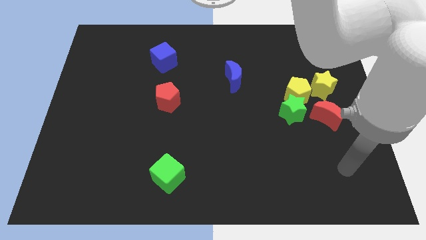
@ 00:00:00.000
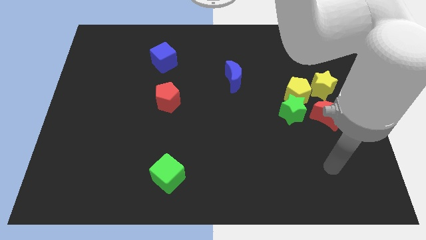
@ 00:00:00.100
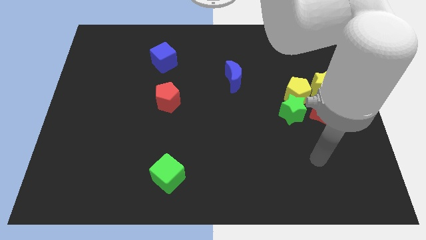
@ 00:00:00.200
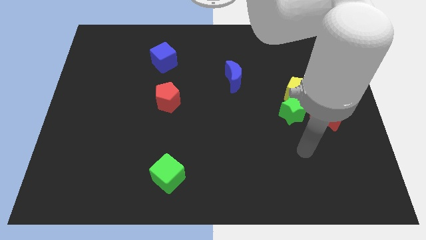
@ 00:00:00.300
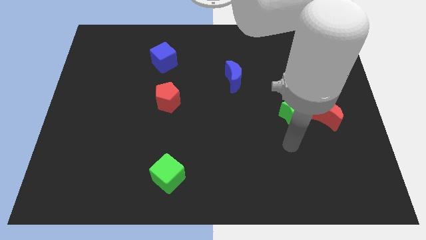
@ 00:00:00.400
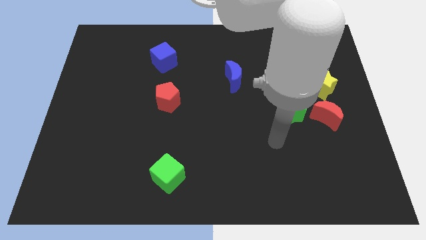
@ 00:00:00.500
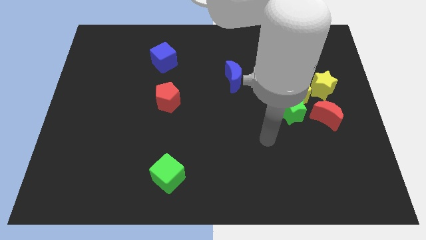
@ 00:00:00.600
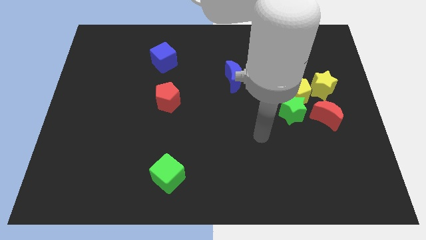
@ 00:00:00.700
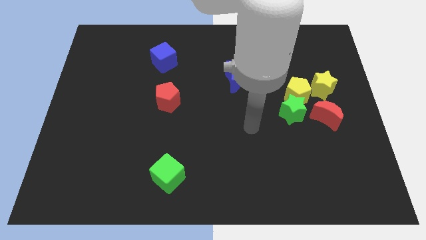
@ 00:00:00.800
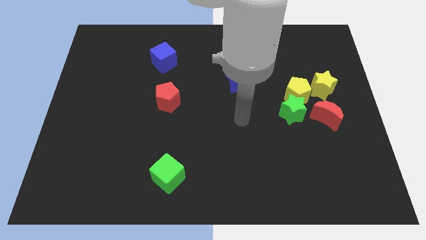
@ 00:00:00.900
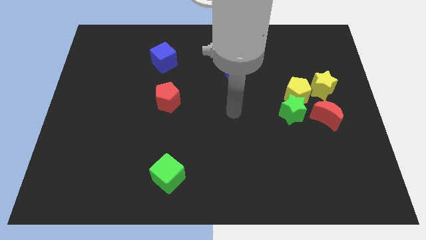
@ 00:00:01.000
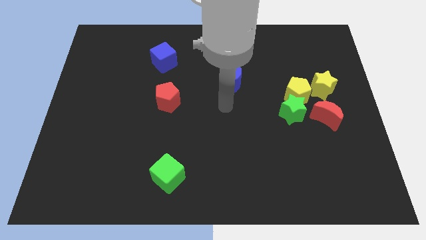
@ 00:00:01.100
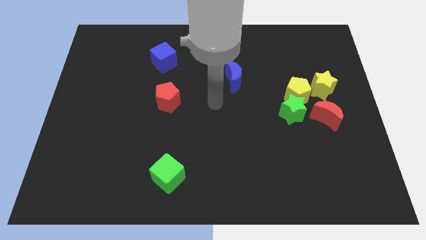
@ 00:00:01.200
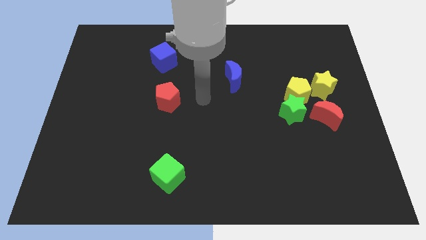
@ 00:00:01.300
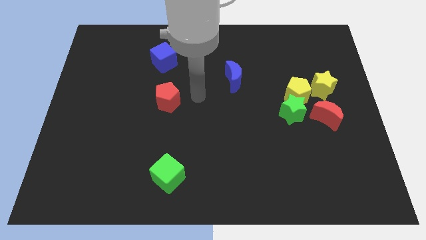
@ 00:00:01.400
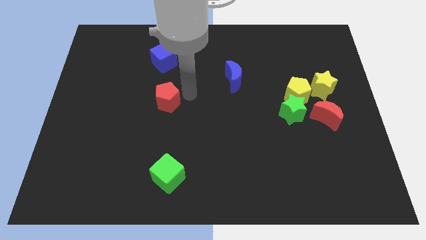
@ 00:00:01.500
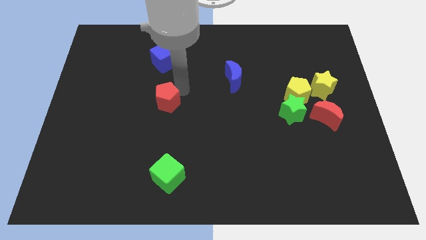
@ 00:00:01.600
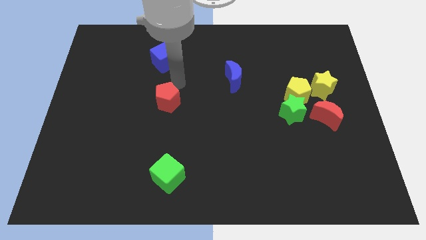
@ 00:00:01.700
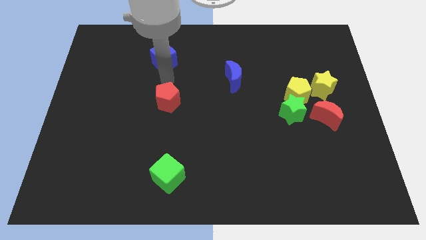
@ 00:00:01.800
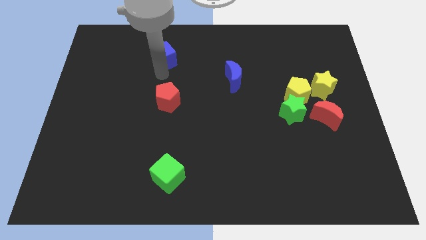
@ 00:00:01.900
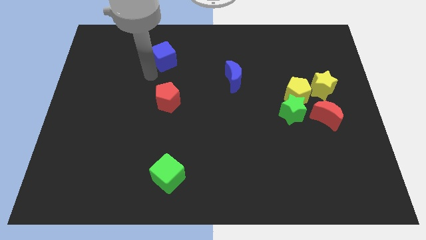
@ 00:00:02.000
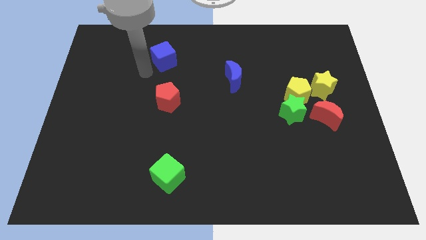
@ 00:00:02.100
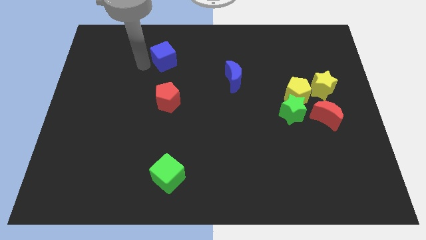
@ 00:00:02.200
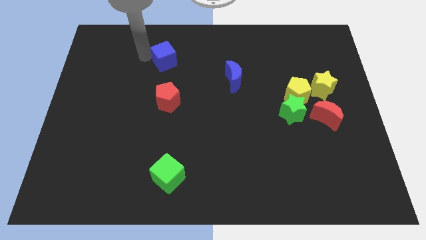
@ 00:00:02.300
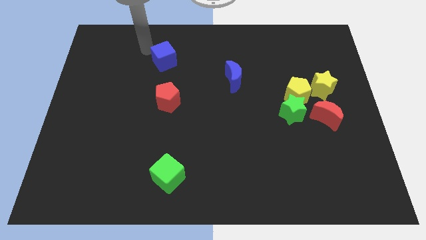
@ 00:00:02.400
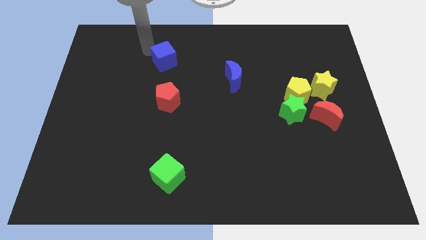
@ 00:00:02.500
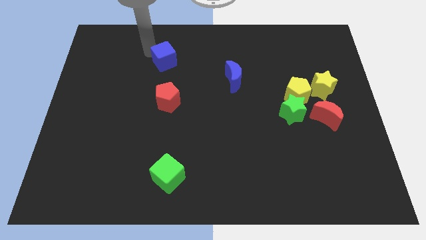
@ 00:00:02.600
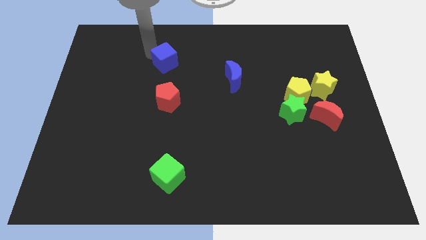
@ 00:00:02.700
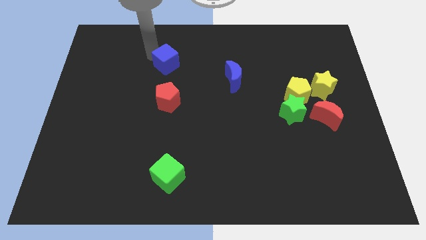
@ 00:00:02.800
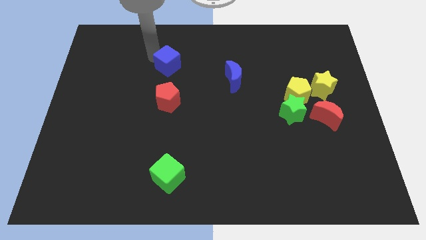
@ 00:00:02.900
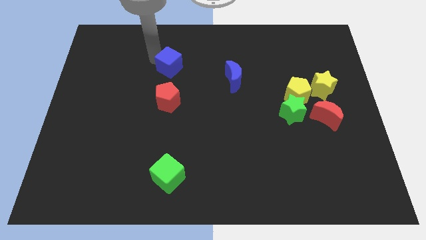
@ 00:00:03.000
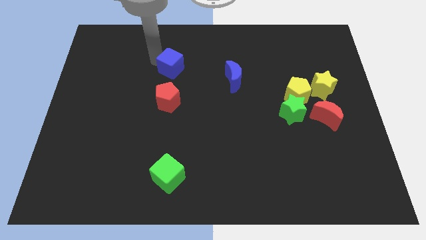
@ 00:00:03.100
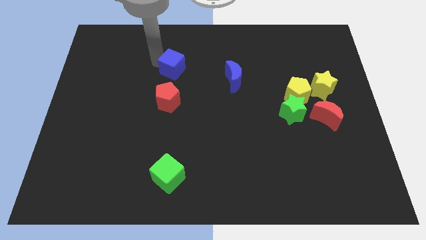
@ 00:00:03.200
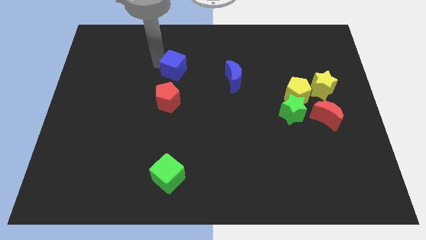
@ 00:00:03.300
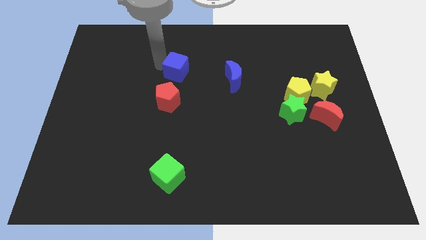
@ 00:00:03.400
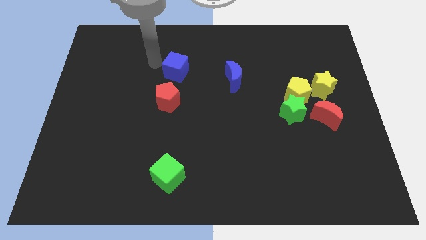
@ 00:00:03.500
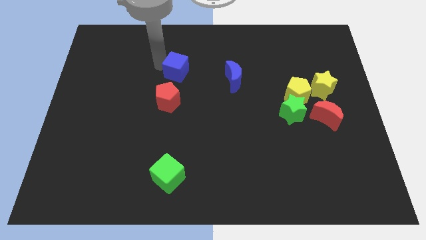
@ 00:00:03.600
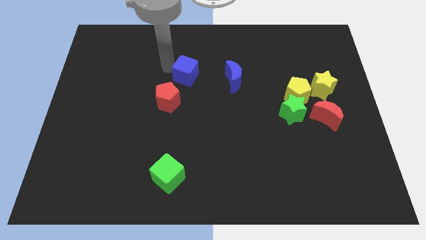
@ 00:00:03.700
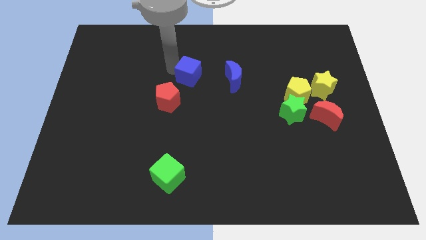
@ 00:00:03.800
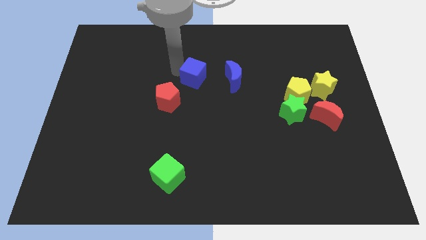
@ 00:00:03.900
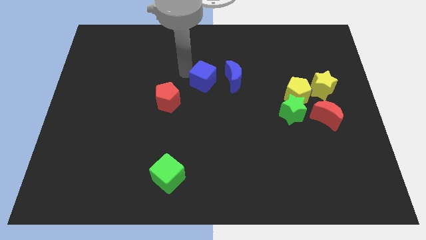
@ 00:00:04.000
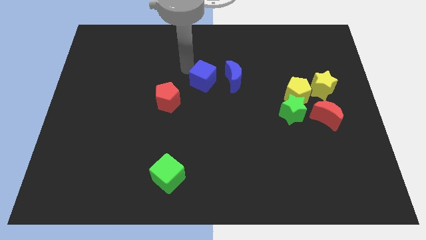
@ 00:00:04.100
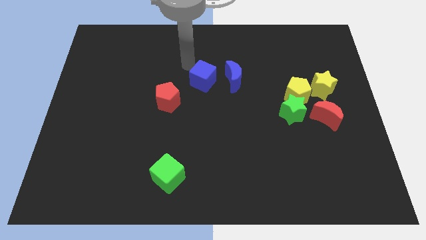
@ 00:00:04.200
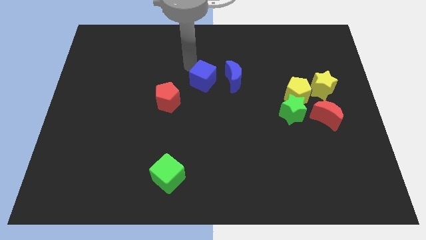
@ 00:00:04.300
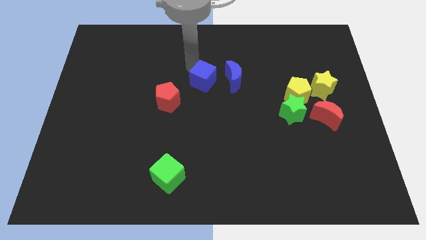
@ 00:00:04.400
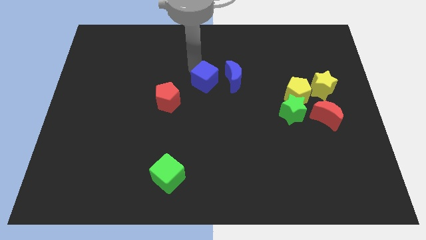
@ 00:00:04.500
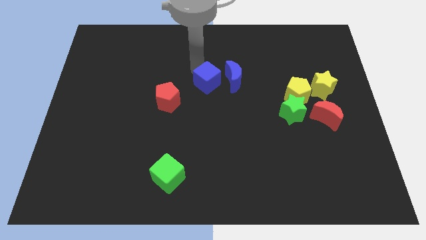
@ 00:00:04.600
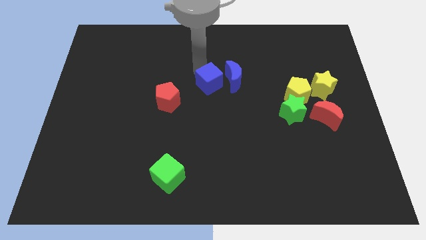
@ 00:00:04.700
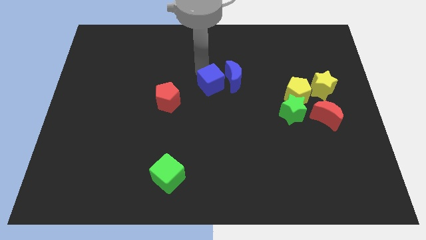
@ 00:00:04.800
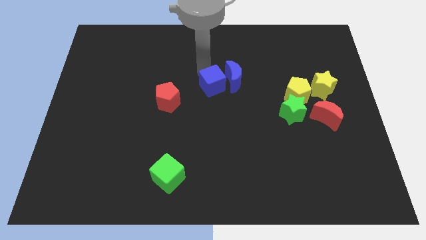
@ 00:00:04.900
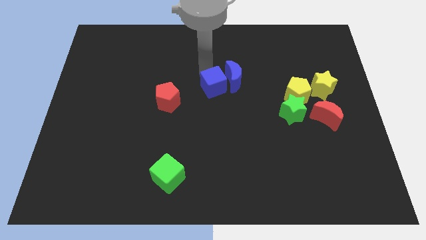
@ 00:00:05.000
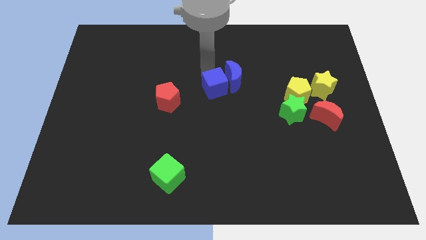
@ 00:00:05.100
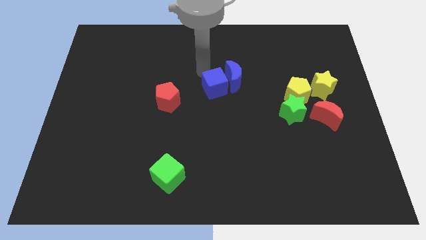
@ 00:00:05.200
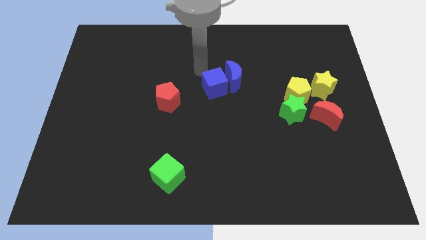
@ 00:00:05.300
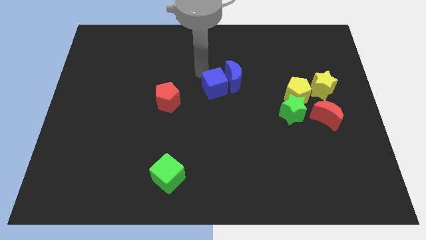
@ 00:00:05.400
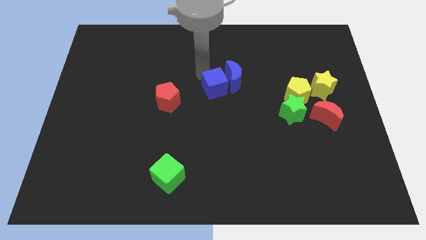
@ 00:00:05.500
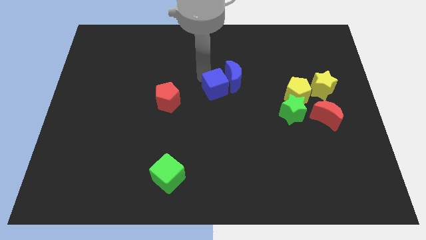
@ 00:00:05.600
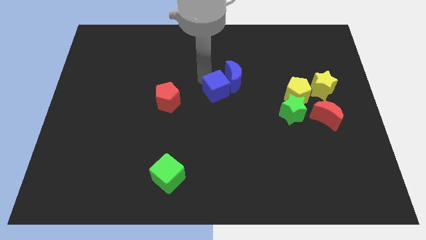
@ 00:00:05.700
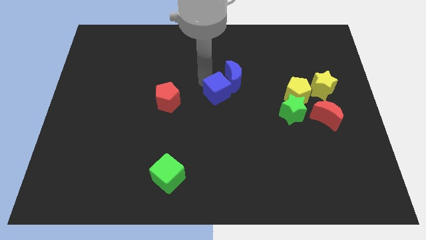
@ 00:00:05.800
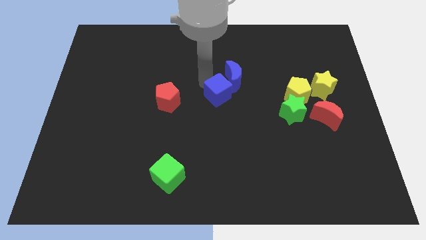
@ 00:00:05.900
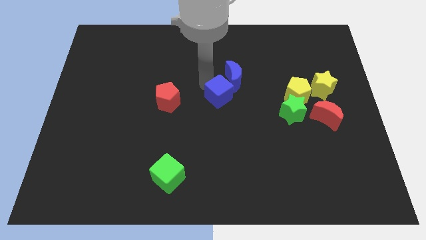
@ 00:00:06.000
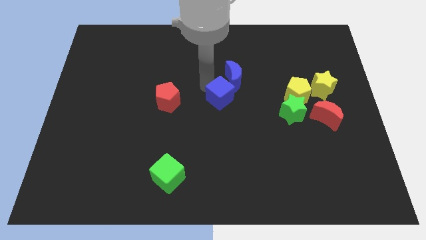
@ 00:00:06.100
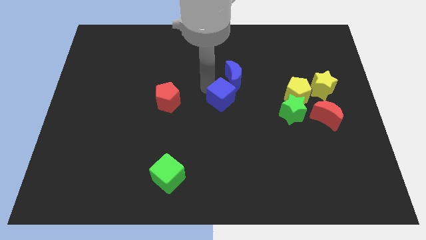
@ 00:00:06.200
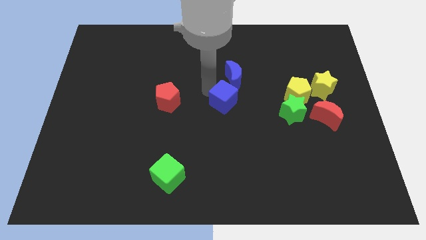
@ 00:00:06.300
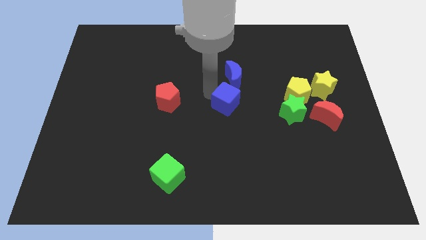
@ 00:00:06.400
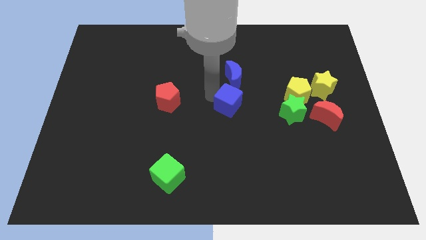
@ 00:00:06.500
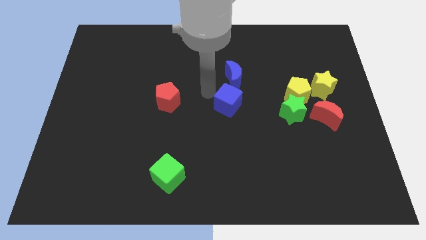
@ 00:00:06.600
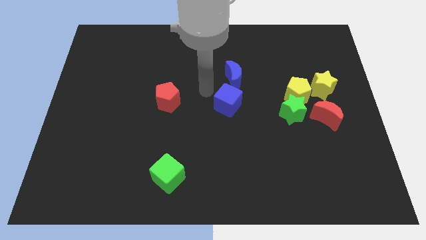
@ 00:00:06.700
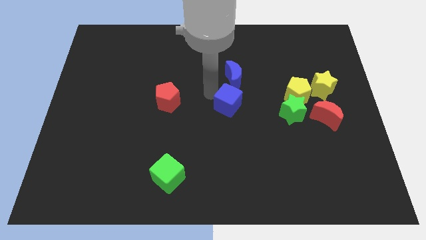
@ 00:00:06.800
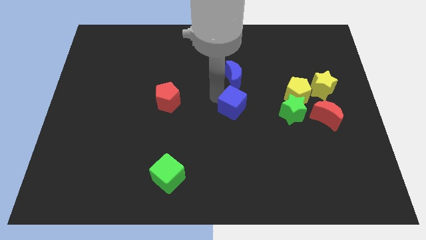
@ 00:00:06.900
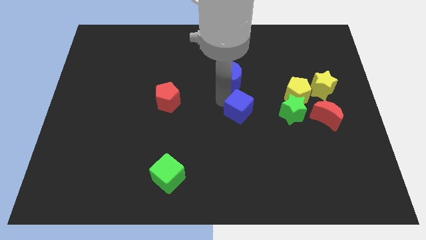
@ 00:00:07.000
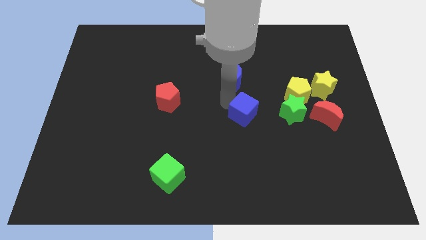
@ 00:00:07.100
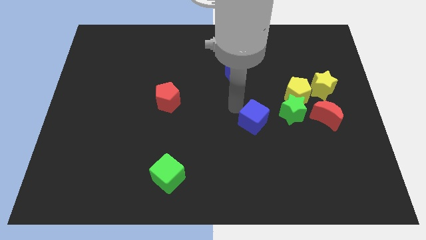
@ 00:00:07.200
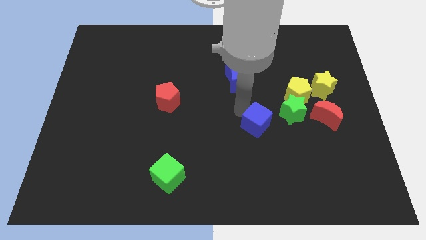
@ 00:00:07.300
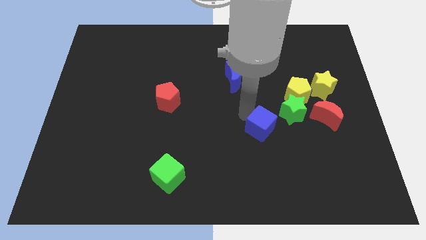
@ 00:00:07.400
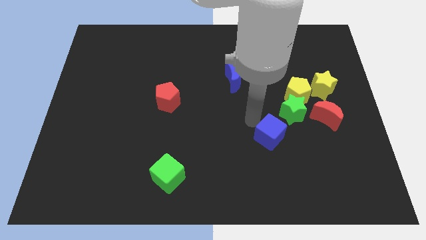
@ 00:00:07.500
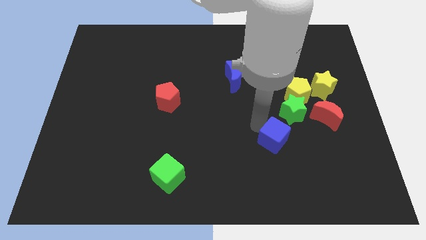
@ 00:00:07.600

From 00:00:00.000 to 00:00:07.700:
slide the blue cube to the bottom side of the green star
